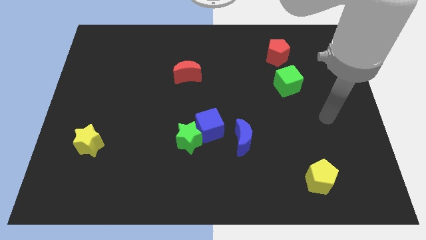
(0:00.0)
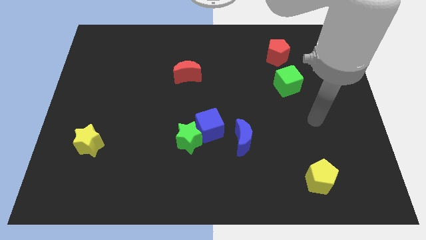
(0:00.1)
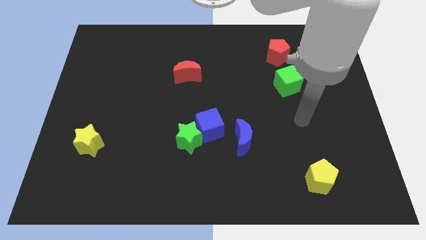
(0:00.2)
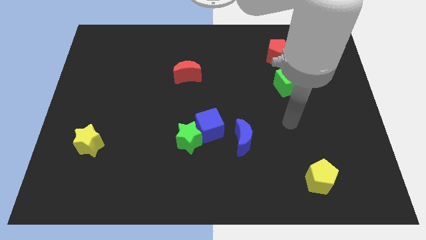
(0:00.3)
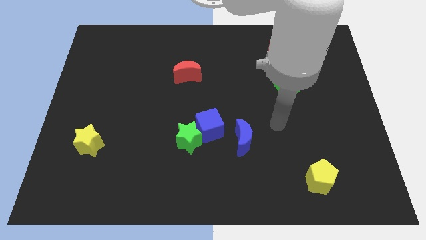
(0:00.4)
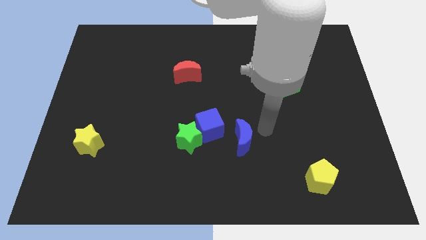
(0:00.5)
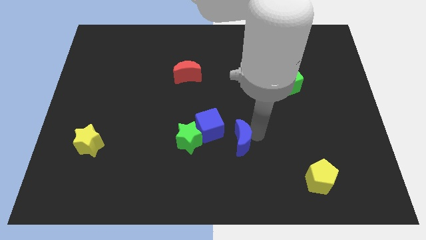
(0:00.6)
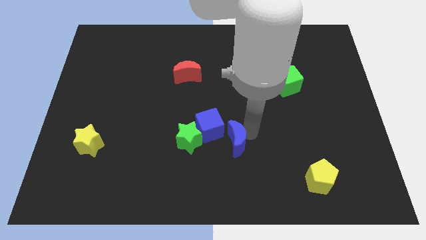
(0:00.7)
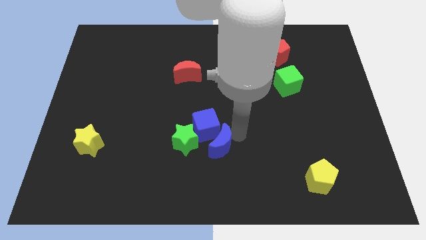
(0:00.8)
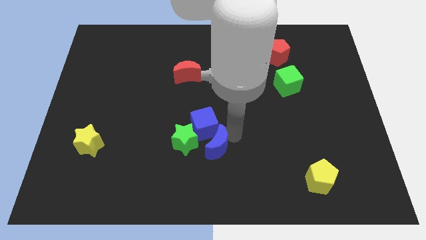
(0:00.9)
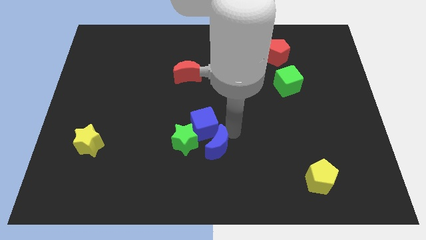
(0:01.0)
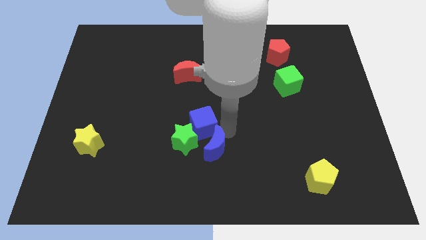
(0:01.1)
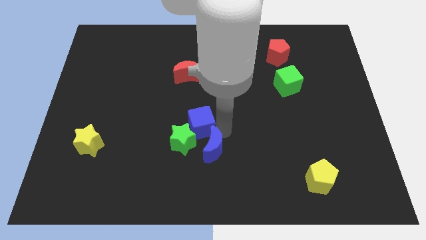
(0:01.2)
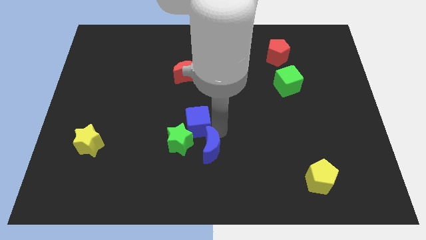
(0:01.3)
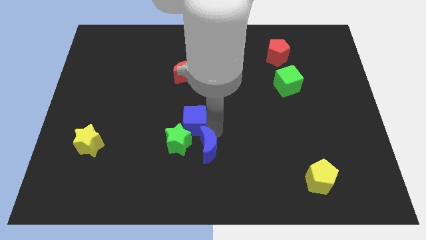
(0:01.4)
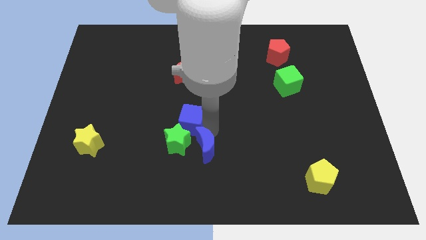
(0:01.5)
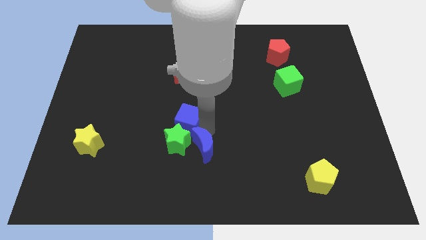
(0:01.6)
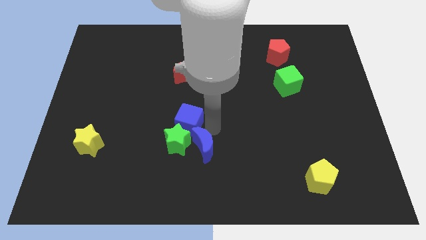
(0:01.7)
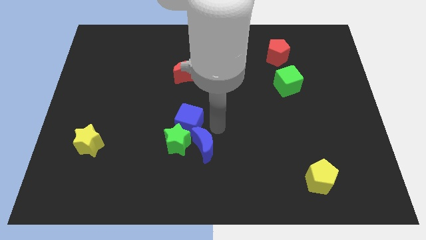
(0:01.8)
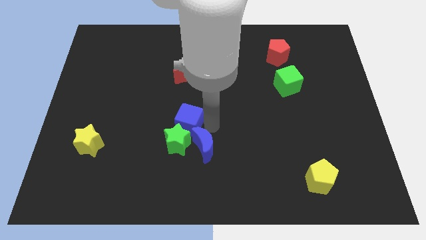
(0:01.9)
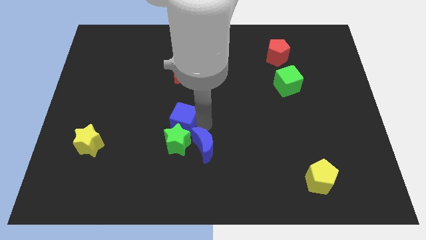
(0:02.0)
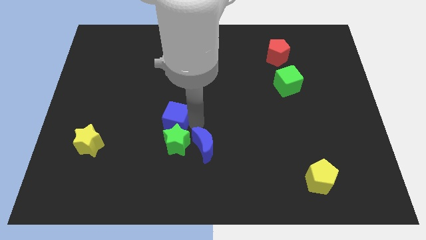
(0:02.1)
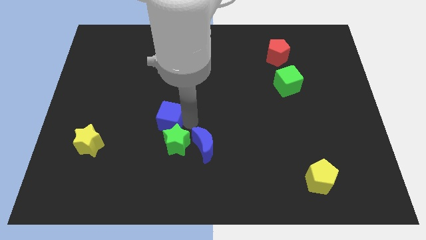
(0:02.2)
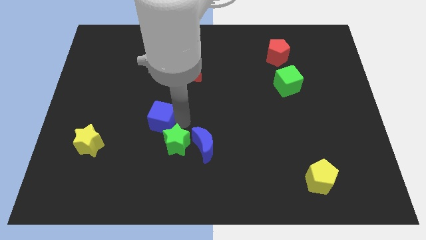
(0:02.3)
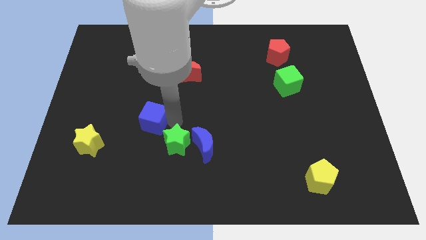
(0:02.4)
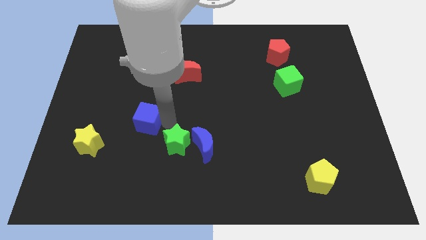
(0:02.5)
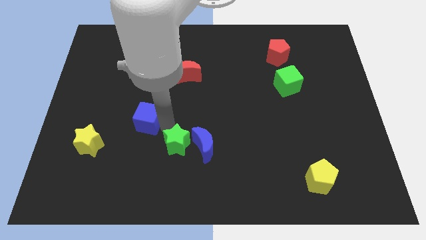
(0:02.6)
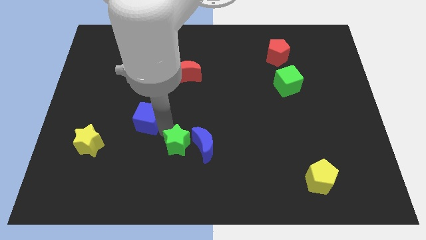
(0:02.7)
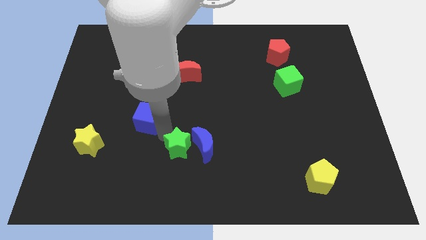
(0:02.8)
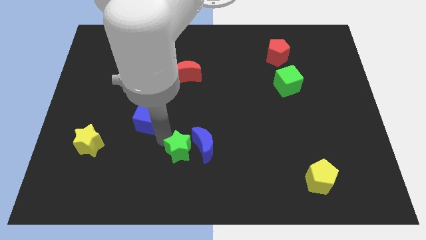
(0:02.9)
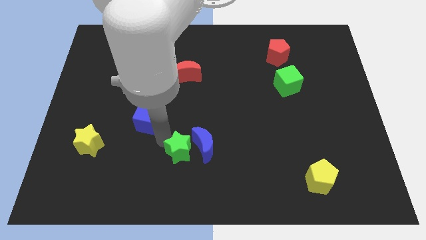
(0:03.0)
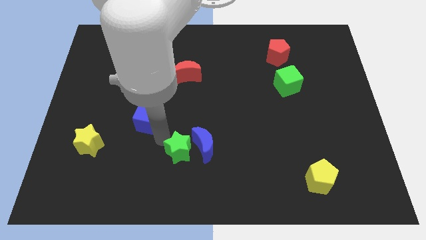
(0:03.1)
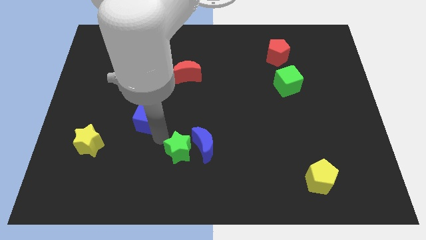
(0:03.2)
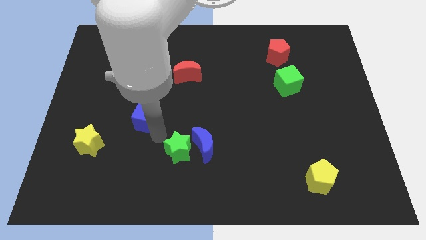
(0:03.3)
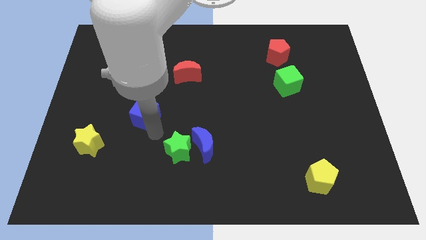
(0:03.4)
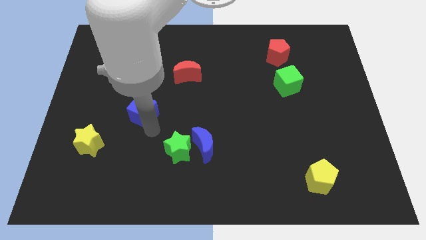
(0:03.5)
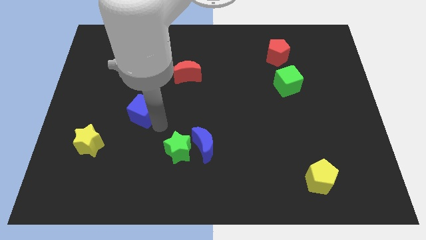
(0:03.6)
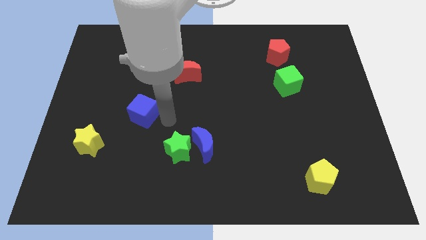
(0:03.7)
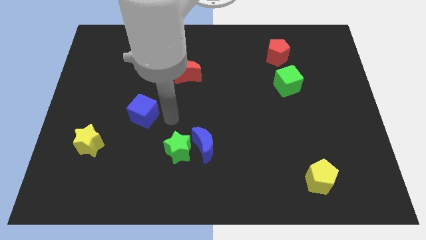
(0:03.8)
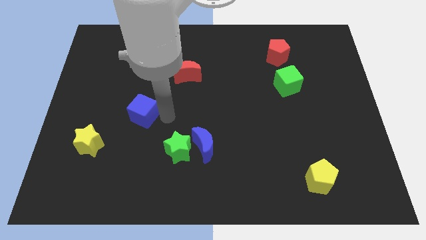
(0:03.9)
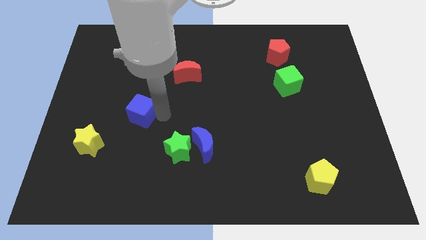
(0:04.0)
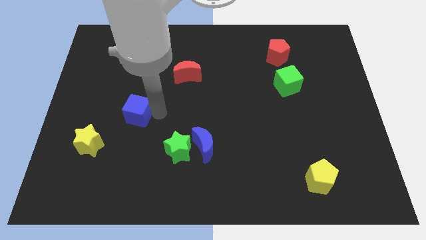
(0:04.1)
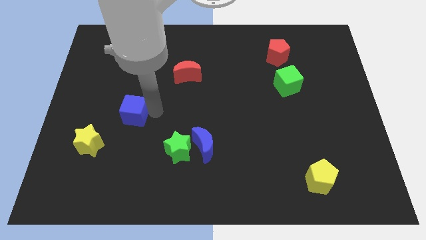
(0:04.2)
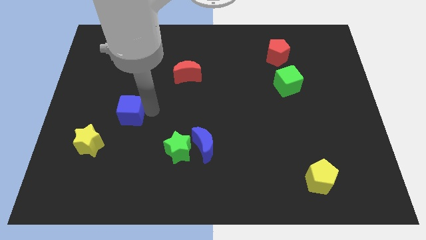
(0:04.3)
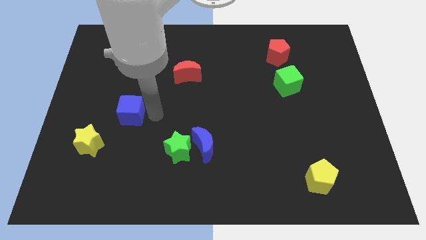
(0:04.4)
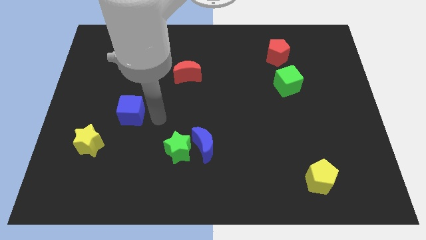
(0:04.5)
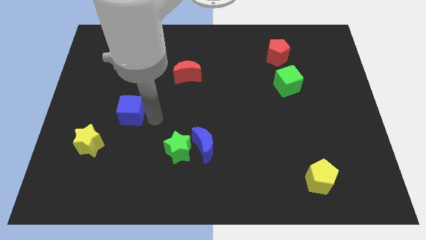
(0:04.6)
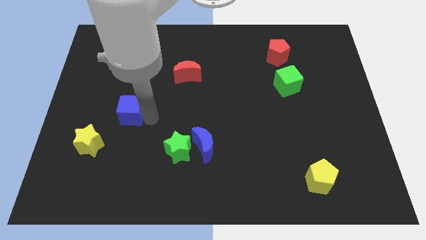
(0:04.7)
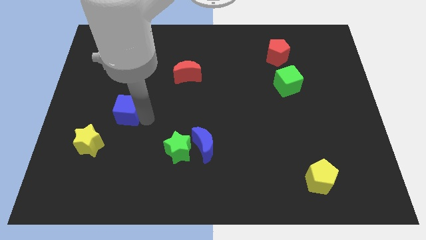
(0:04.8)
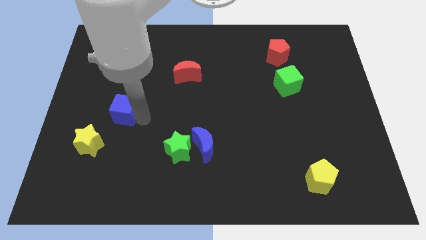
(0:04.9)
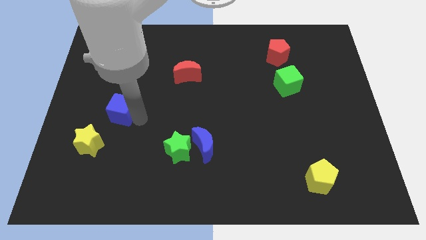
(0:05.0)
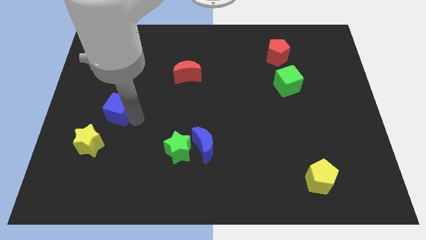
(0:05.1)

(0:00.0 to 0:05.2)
push the blue cube above the yellow star

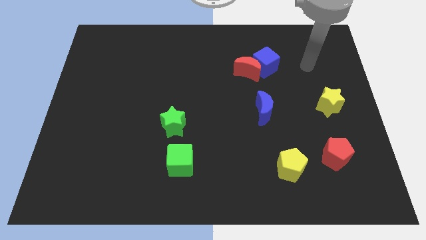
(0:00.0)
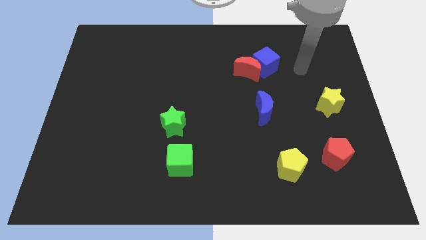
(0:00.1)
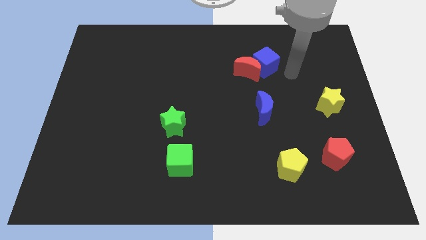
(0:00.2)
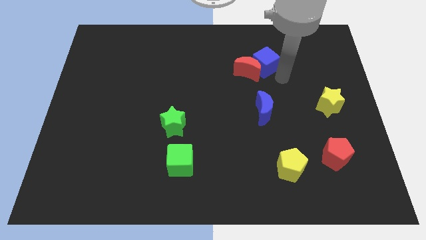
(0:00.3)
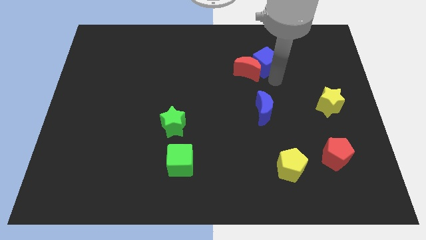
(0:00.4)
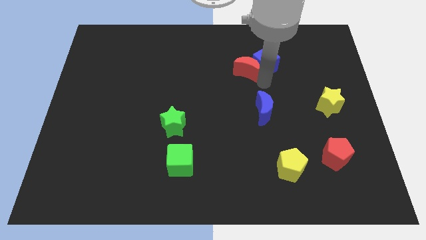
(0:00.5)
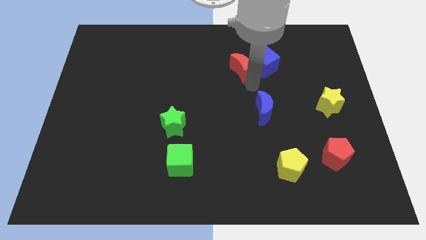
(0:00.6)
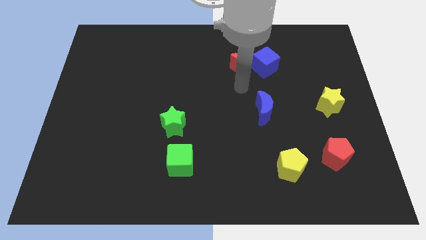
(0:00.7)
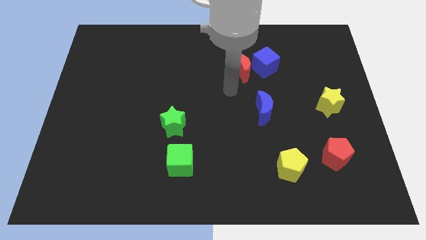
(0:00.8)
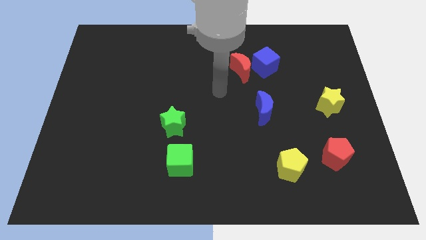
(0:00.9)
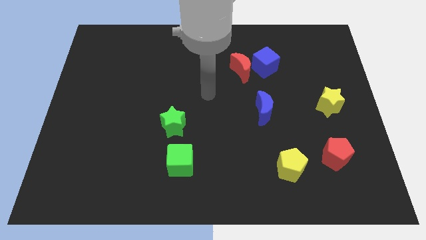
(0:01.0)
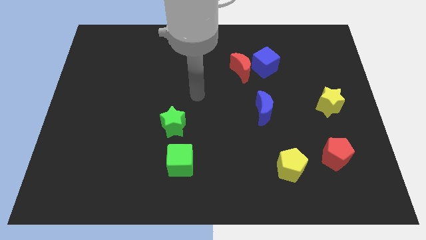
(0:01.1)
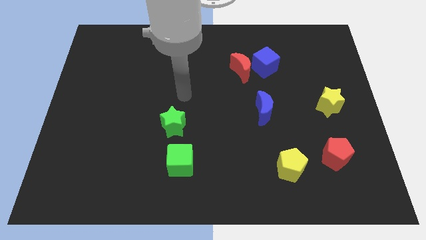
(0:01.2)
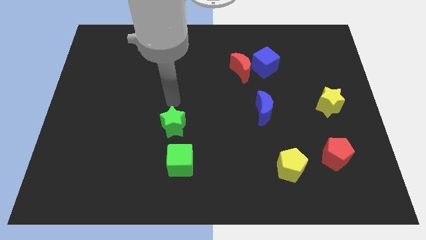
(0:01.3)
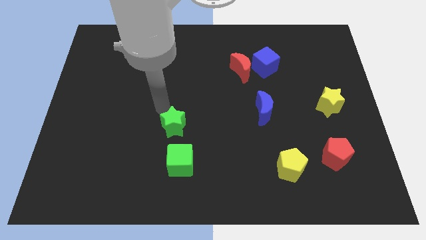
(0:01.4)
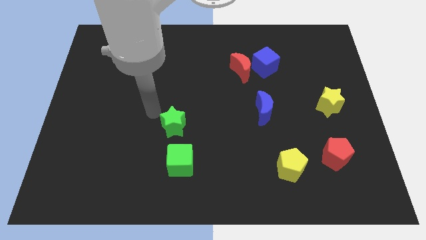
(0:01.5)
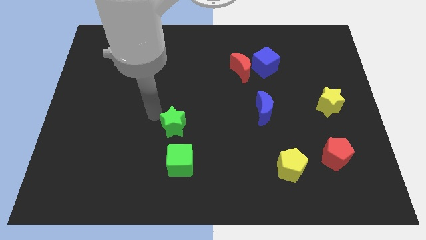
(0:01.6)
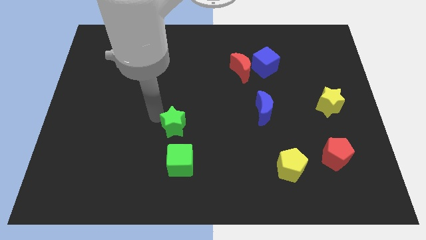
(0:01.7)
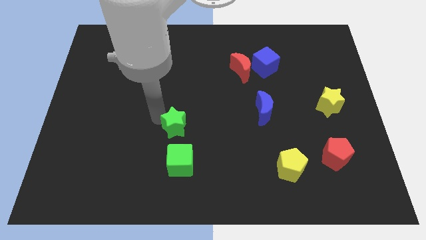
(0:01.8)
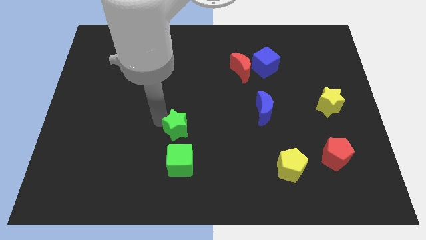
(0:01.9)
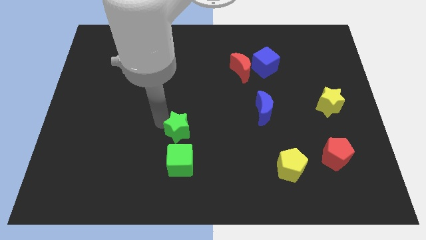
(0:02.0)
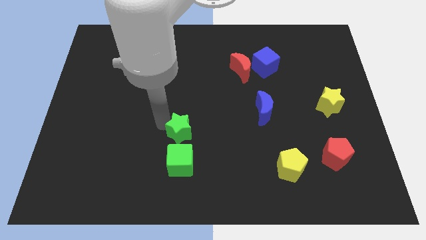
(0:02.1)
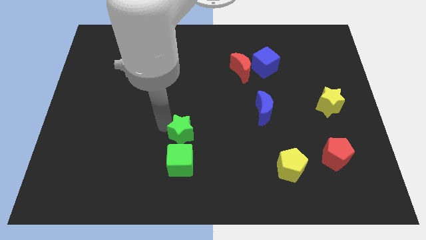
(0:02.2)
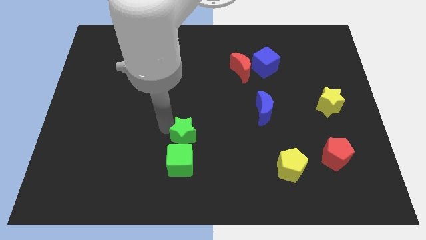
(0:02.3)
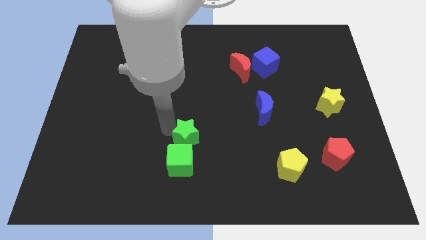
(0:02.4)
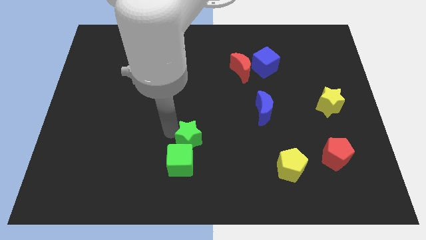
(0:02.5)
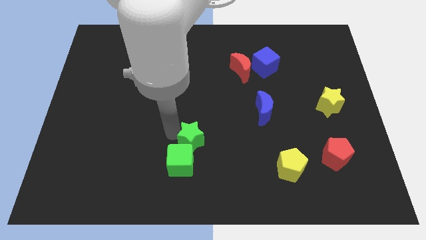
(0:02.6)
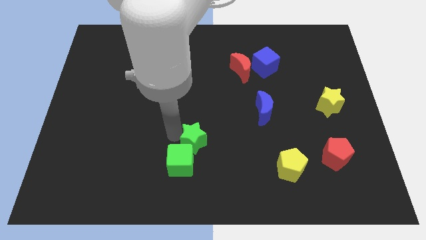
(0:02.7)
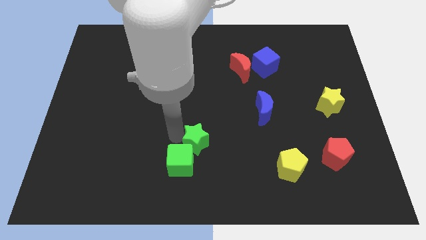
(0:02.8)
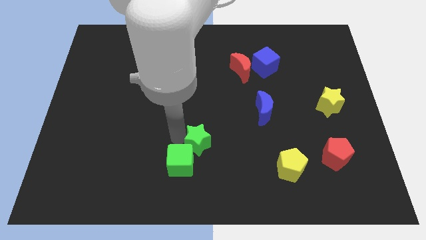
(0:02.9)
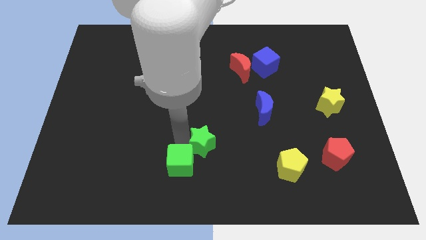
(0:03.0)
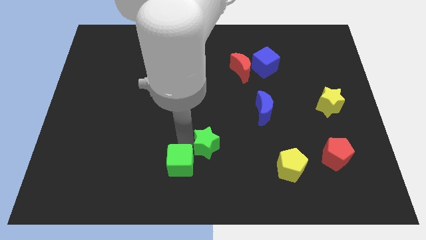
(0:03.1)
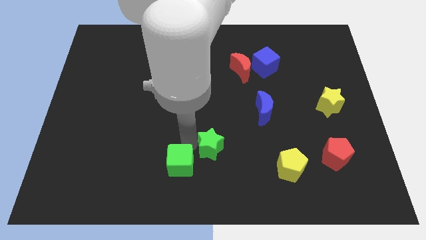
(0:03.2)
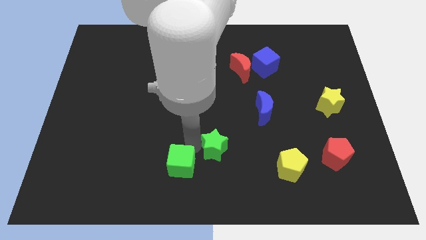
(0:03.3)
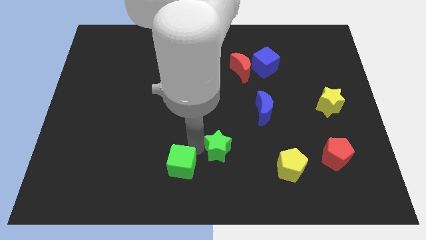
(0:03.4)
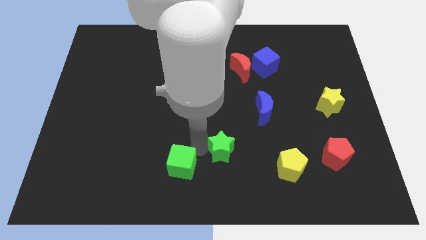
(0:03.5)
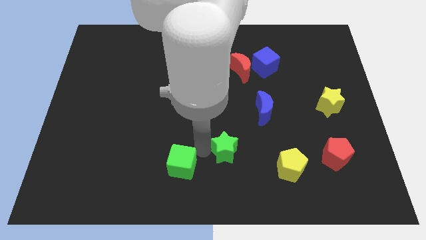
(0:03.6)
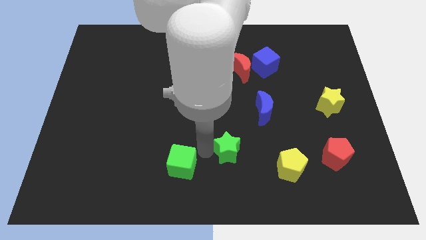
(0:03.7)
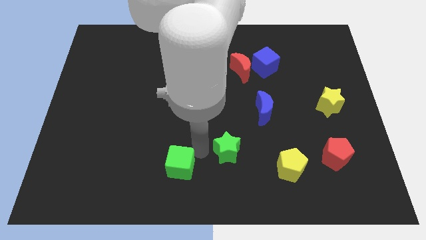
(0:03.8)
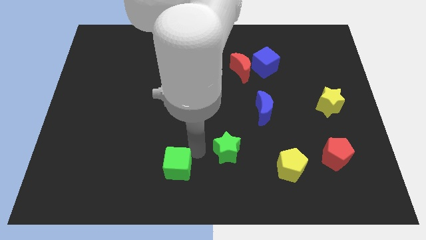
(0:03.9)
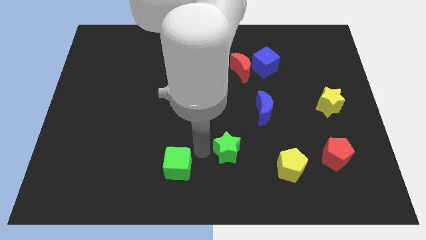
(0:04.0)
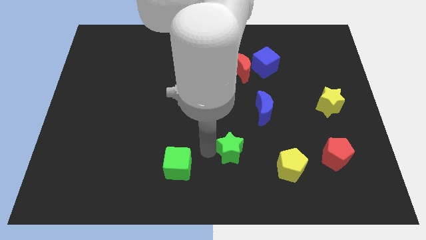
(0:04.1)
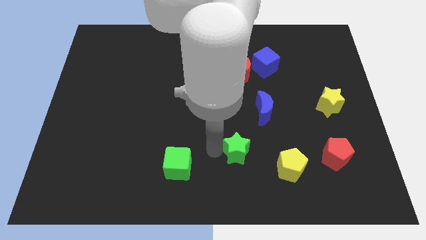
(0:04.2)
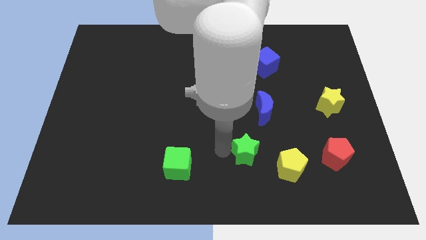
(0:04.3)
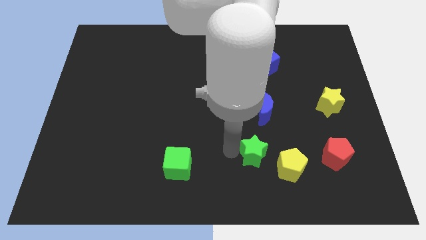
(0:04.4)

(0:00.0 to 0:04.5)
slide the green star to the bottom side of the blue moon
